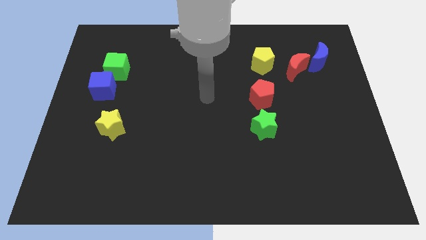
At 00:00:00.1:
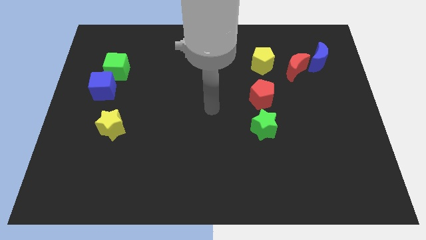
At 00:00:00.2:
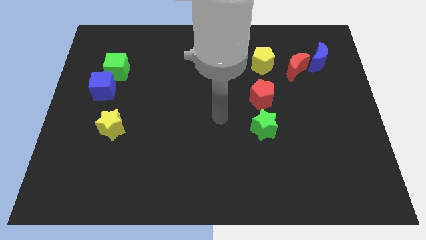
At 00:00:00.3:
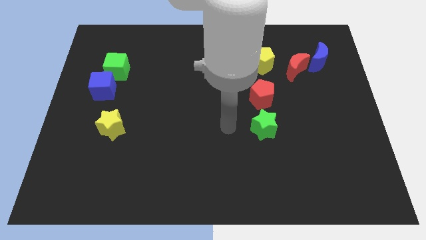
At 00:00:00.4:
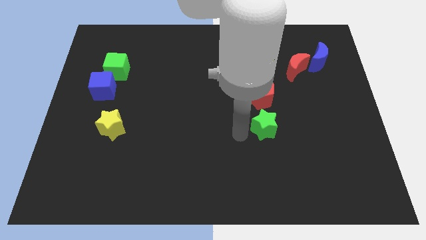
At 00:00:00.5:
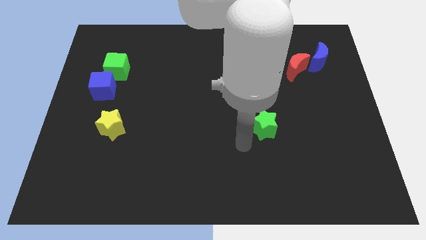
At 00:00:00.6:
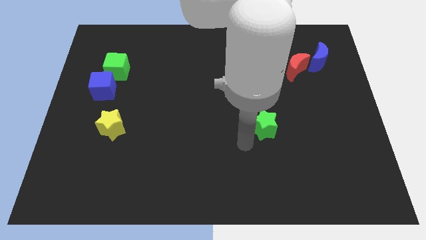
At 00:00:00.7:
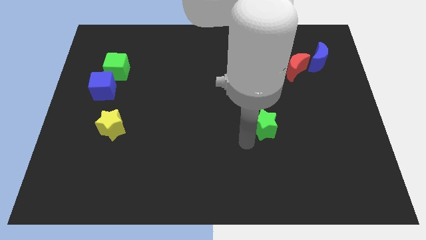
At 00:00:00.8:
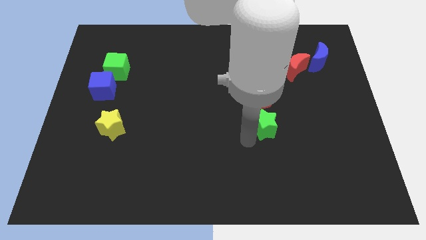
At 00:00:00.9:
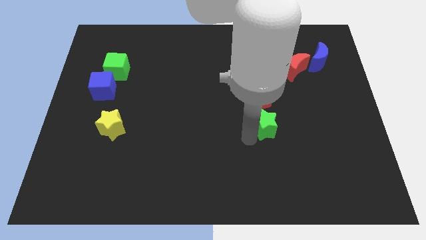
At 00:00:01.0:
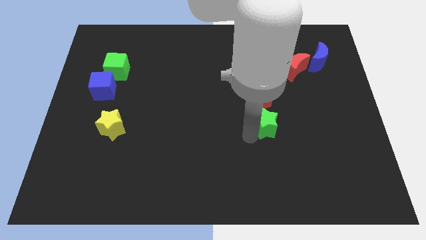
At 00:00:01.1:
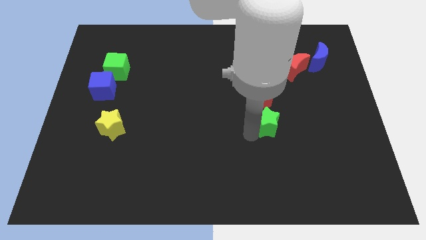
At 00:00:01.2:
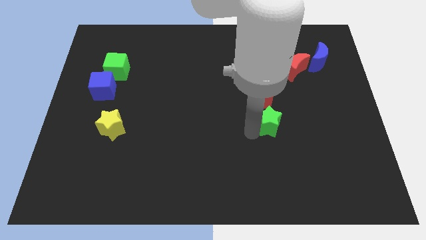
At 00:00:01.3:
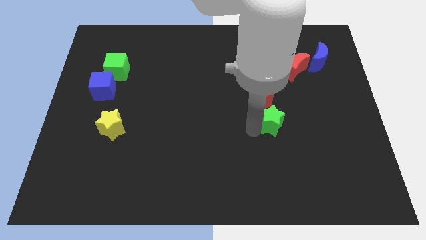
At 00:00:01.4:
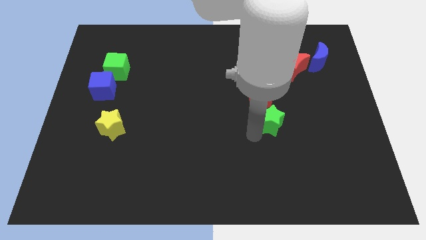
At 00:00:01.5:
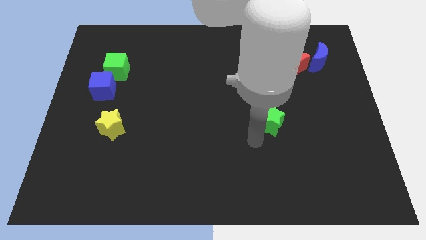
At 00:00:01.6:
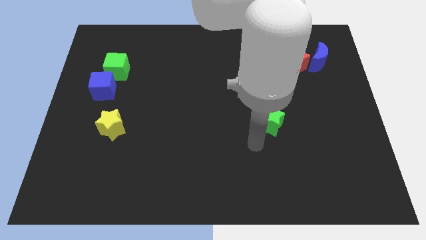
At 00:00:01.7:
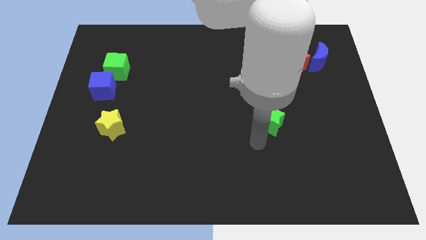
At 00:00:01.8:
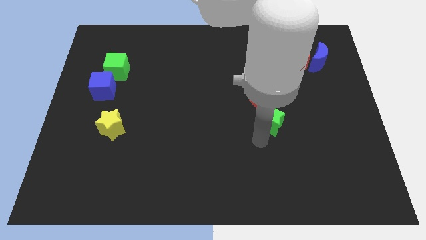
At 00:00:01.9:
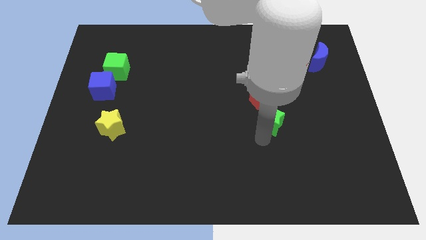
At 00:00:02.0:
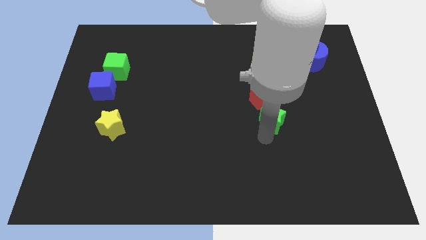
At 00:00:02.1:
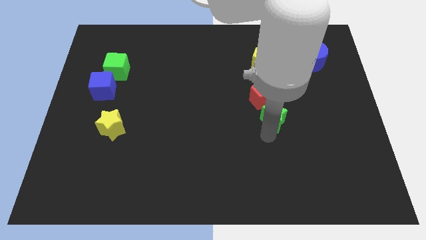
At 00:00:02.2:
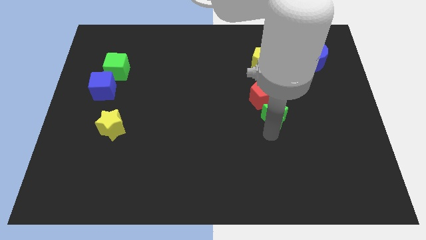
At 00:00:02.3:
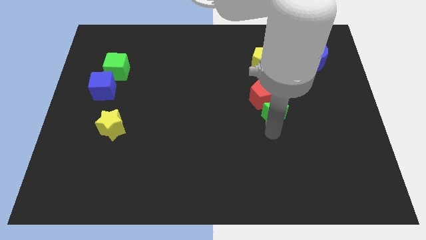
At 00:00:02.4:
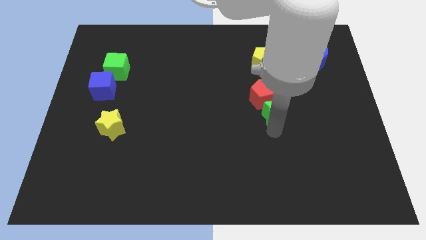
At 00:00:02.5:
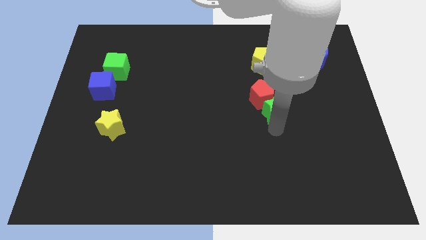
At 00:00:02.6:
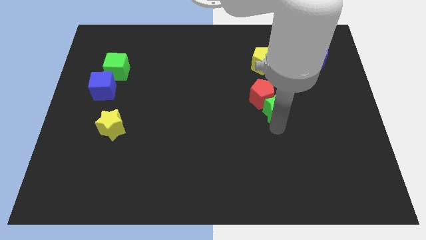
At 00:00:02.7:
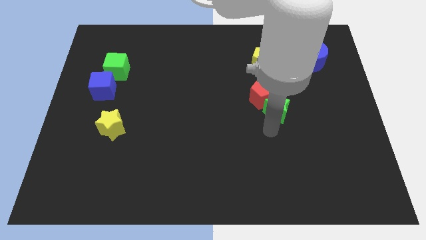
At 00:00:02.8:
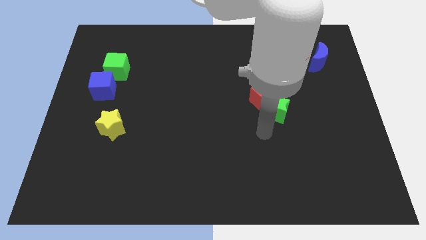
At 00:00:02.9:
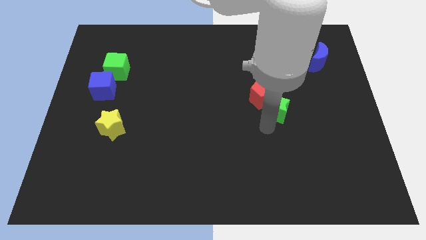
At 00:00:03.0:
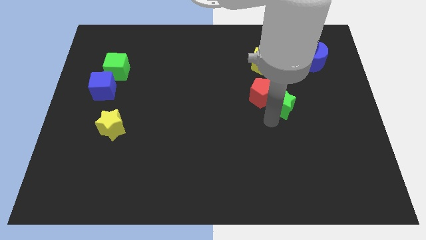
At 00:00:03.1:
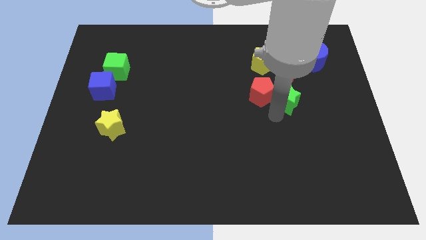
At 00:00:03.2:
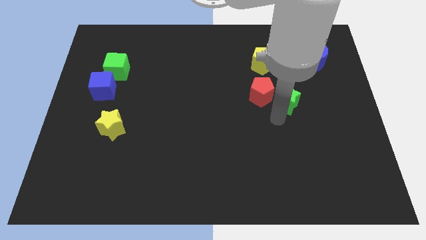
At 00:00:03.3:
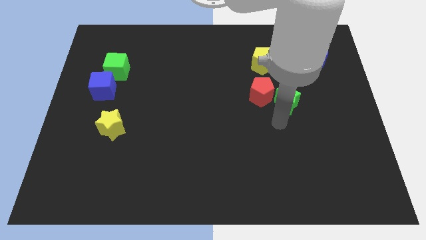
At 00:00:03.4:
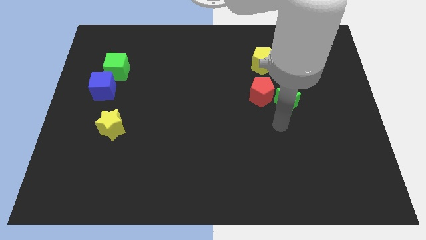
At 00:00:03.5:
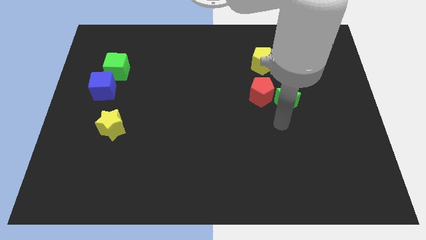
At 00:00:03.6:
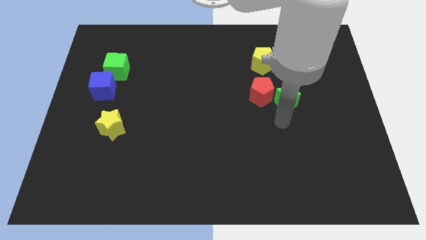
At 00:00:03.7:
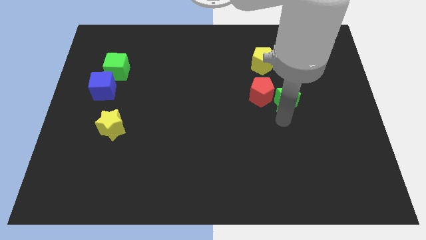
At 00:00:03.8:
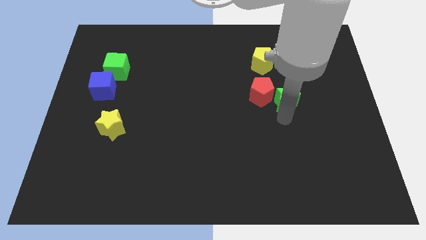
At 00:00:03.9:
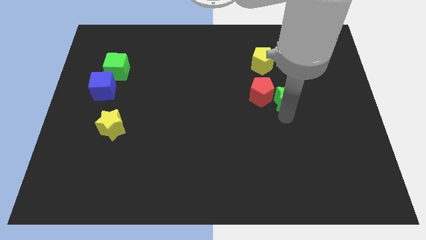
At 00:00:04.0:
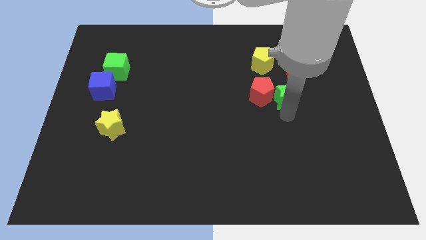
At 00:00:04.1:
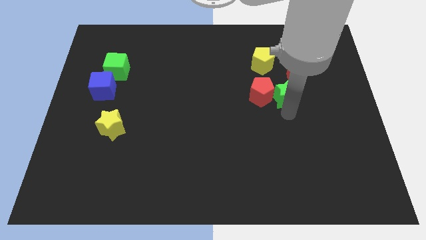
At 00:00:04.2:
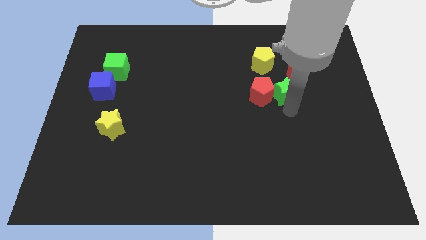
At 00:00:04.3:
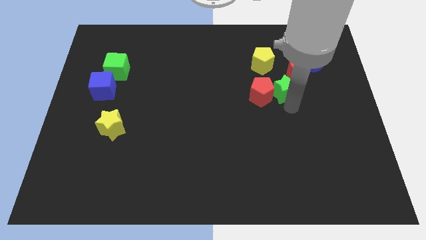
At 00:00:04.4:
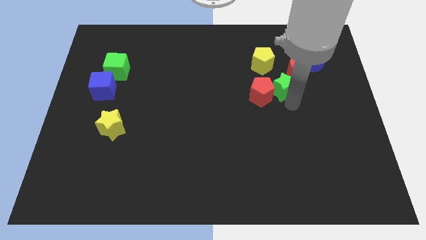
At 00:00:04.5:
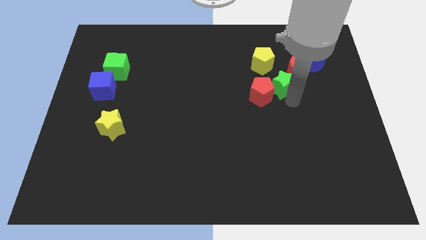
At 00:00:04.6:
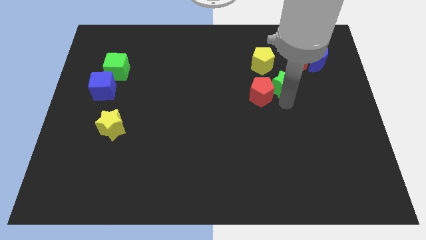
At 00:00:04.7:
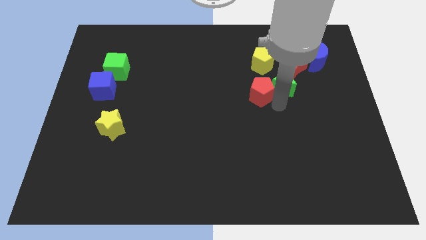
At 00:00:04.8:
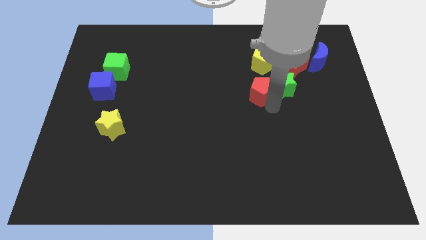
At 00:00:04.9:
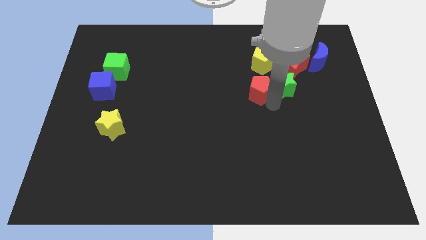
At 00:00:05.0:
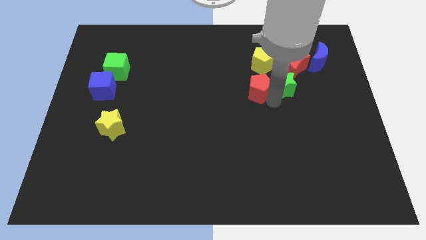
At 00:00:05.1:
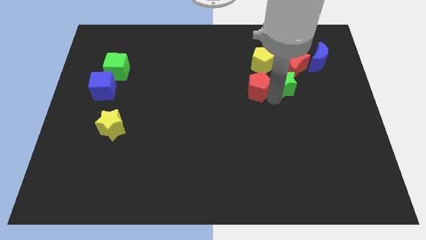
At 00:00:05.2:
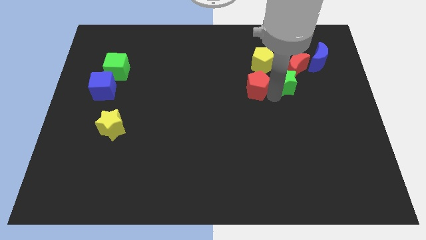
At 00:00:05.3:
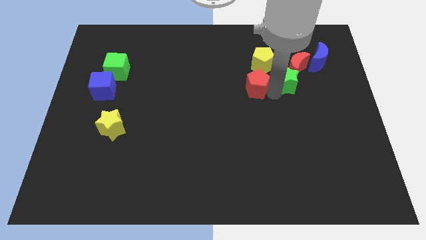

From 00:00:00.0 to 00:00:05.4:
slide the green star close to the red moon

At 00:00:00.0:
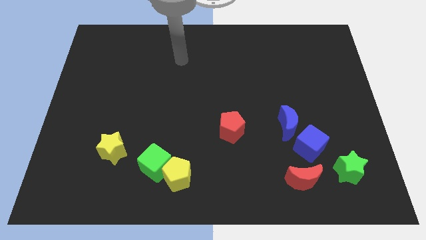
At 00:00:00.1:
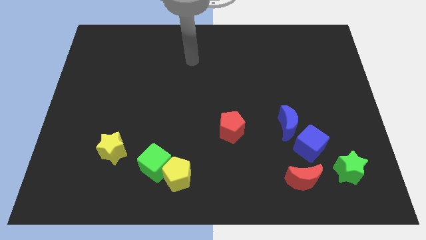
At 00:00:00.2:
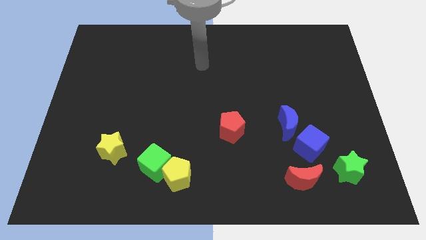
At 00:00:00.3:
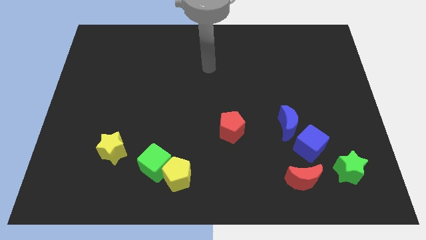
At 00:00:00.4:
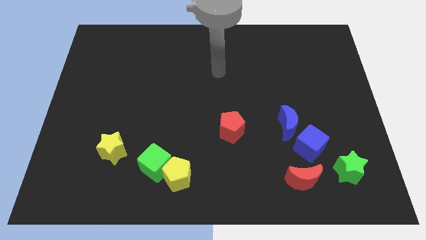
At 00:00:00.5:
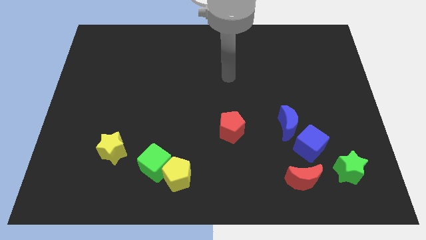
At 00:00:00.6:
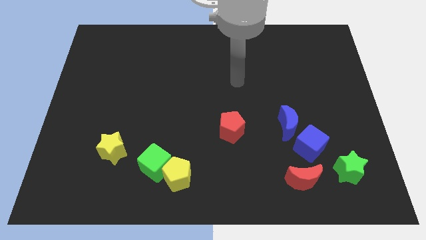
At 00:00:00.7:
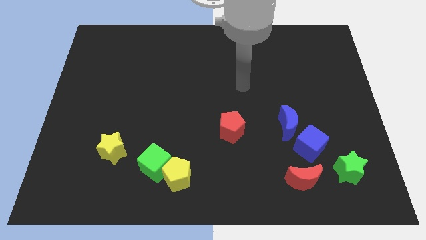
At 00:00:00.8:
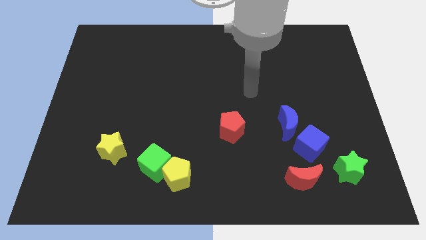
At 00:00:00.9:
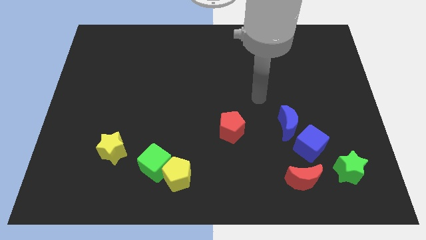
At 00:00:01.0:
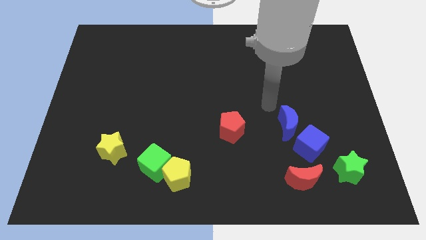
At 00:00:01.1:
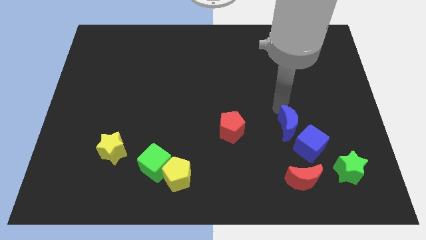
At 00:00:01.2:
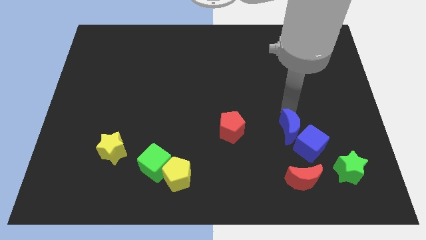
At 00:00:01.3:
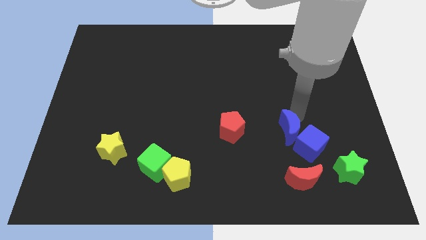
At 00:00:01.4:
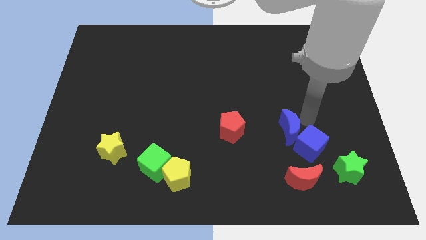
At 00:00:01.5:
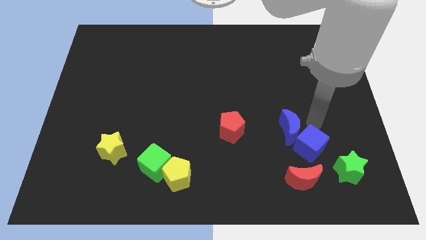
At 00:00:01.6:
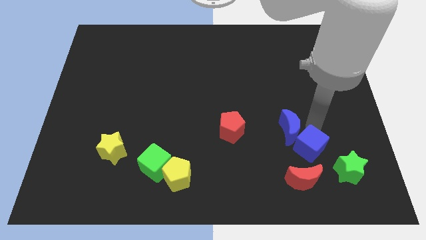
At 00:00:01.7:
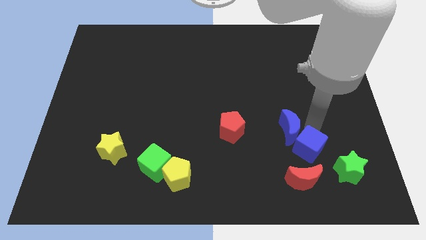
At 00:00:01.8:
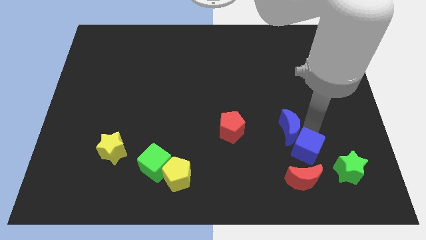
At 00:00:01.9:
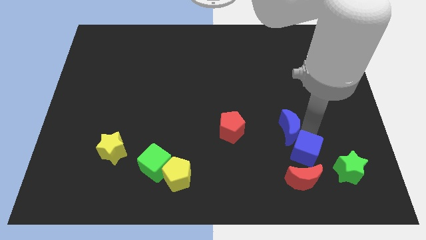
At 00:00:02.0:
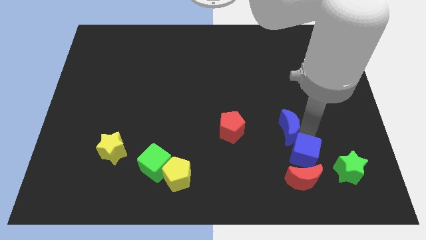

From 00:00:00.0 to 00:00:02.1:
push the blue cube next to the red moon
